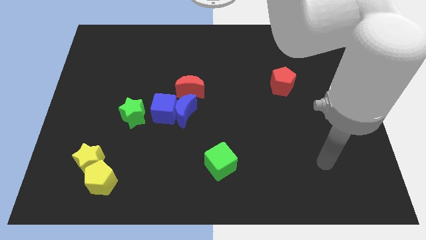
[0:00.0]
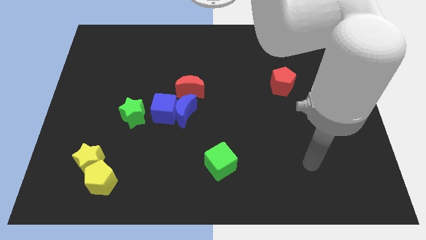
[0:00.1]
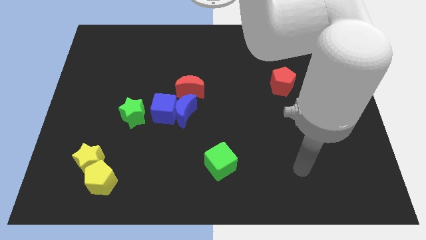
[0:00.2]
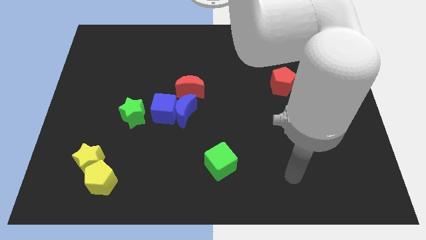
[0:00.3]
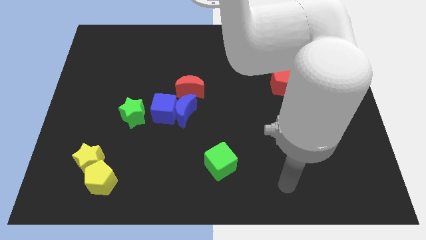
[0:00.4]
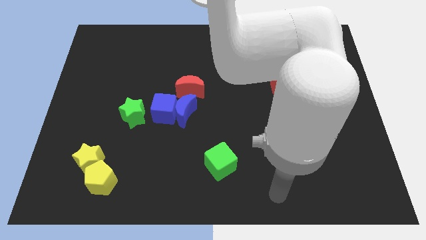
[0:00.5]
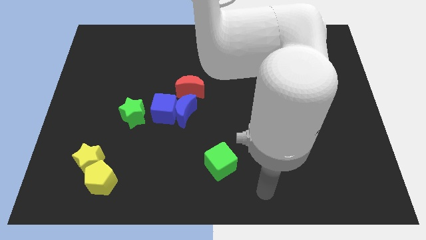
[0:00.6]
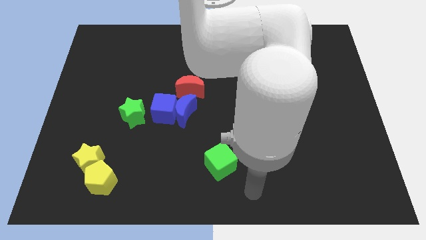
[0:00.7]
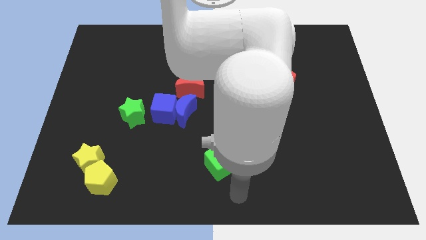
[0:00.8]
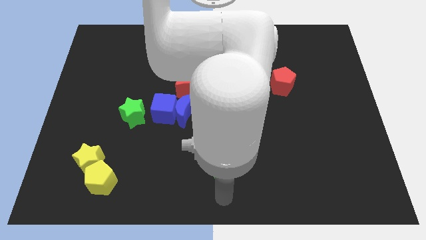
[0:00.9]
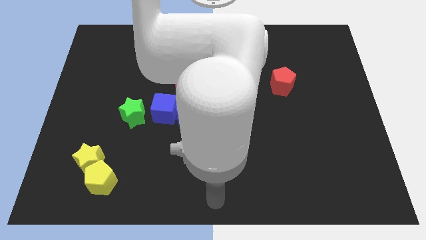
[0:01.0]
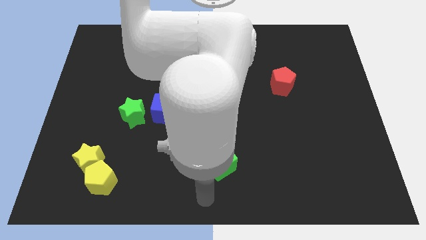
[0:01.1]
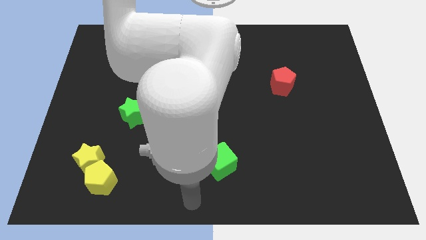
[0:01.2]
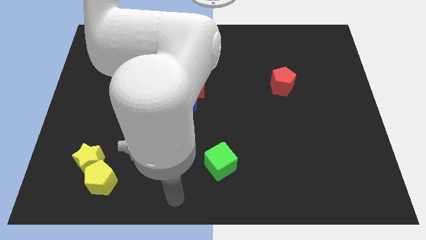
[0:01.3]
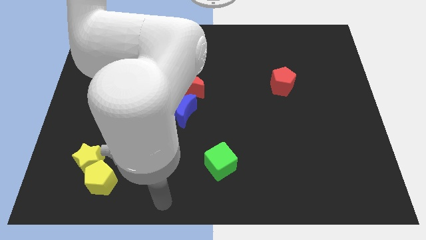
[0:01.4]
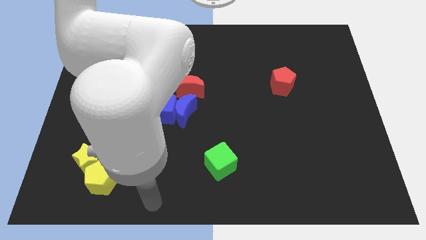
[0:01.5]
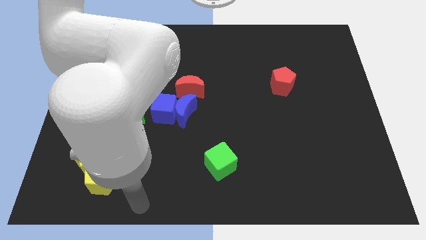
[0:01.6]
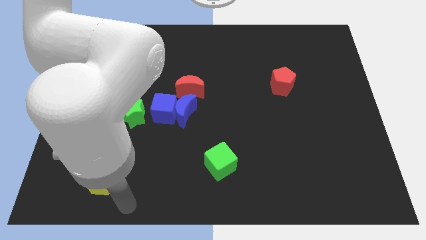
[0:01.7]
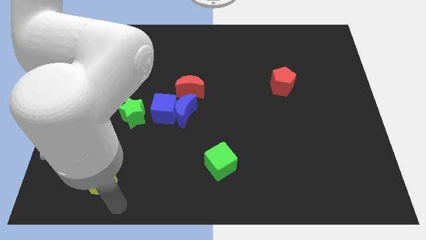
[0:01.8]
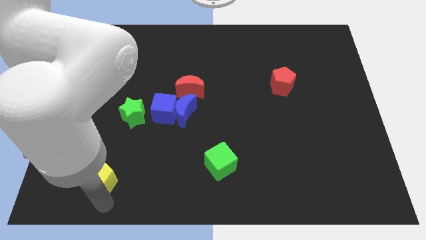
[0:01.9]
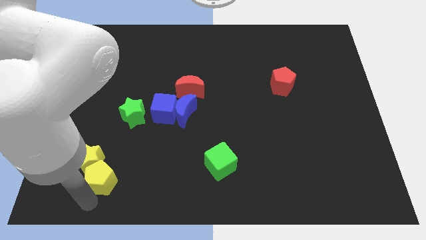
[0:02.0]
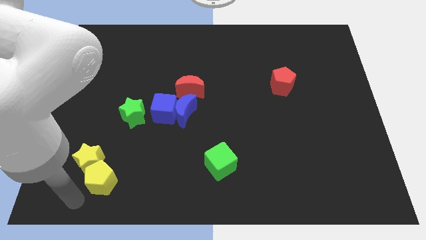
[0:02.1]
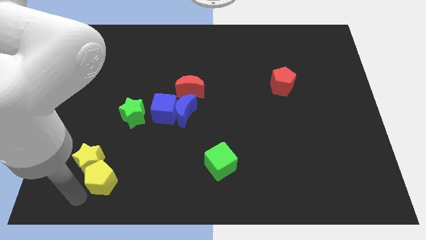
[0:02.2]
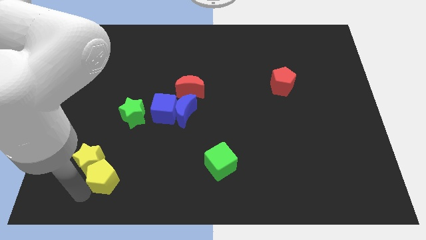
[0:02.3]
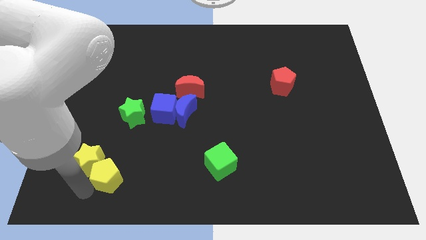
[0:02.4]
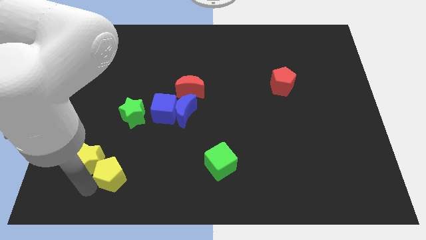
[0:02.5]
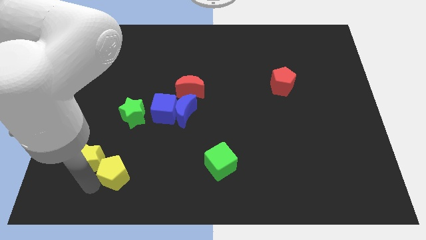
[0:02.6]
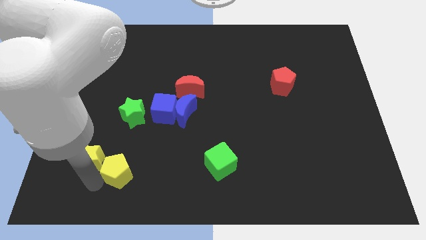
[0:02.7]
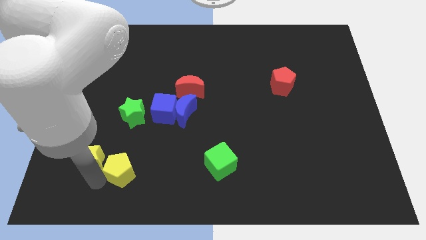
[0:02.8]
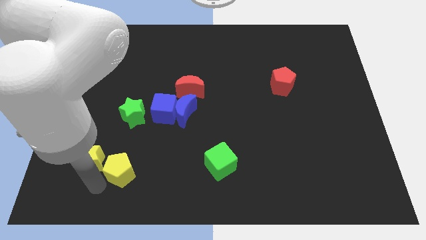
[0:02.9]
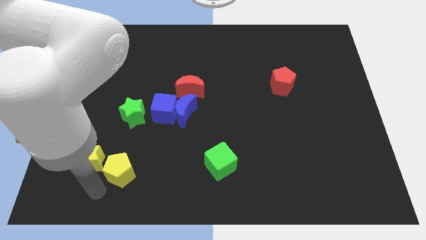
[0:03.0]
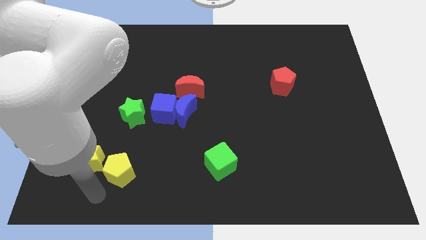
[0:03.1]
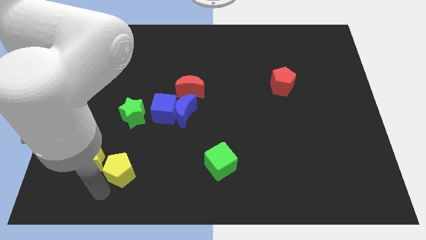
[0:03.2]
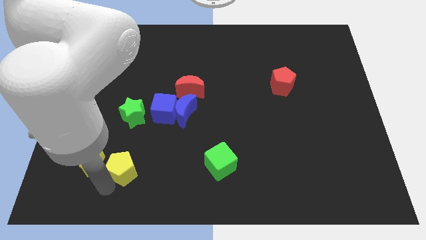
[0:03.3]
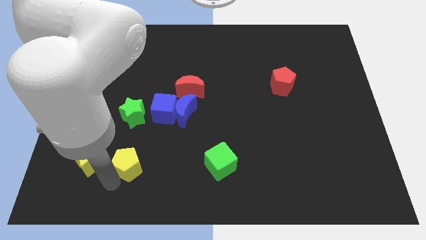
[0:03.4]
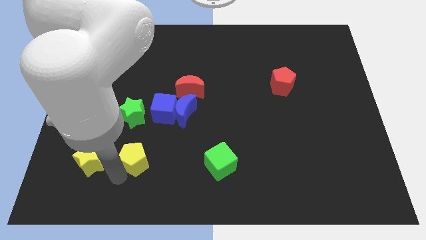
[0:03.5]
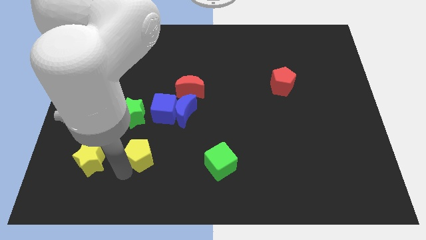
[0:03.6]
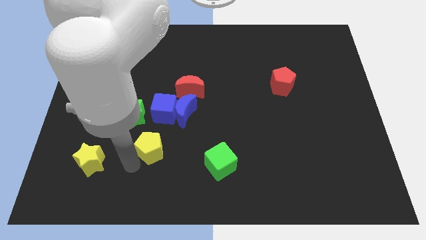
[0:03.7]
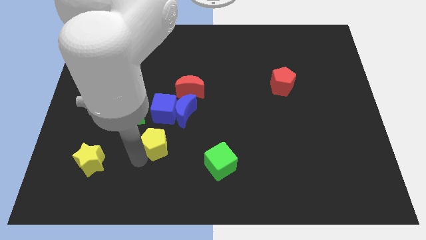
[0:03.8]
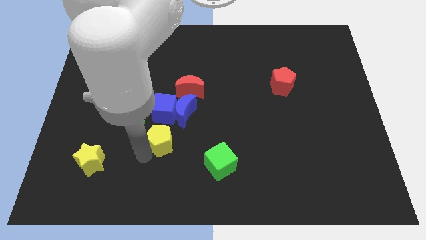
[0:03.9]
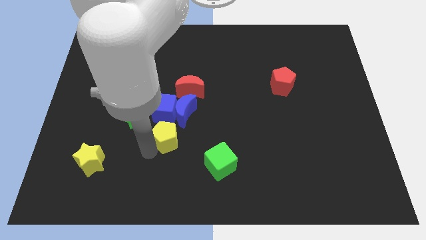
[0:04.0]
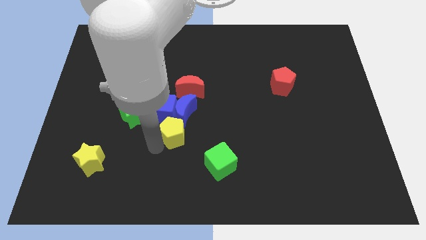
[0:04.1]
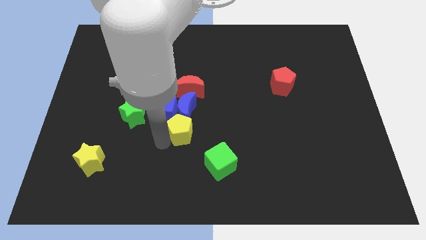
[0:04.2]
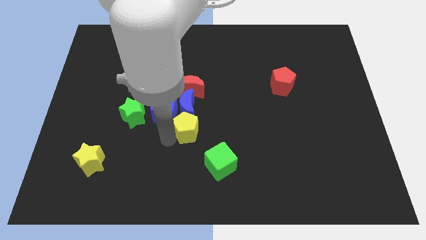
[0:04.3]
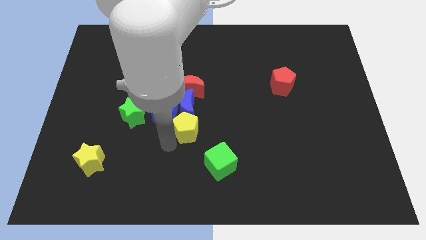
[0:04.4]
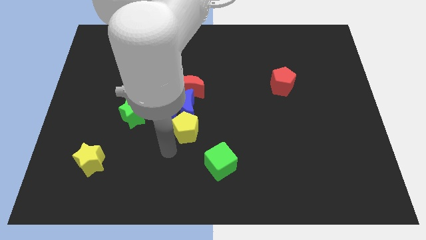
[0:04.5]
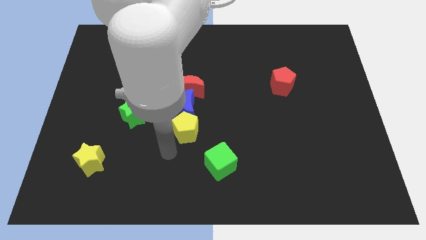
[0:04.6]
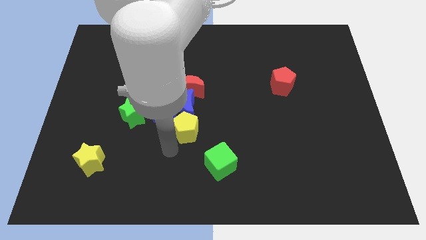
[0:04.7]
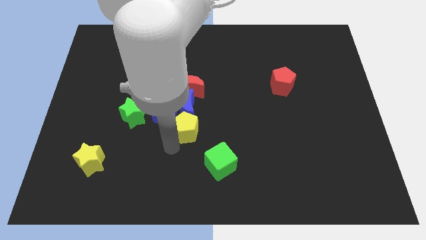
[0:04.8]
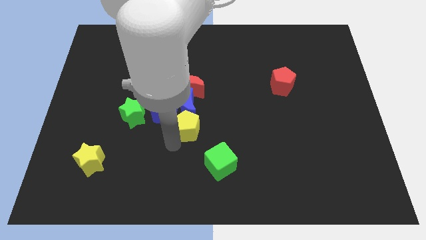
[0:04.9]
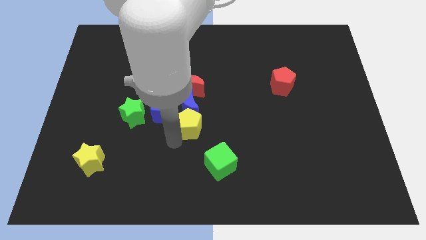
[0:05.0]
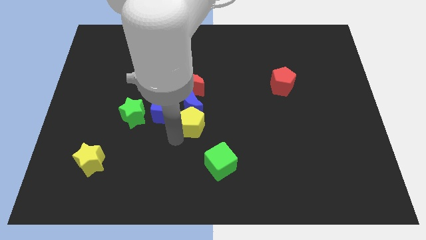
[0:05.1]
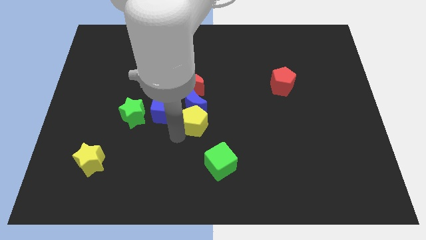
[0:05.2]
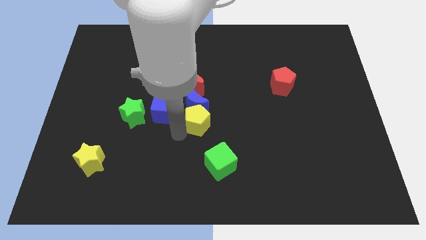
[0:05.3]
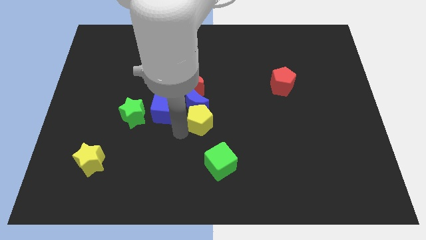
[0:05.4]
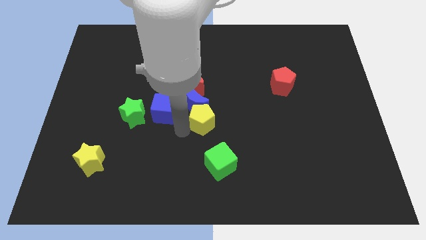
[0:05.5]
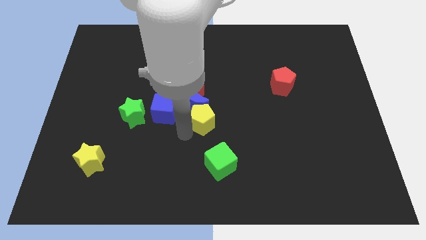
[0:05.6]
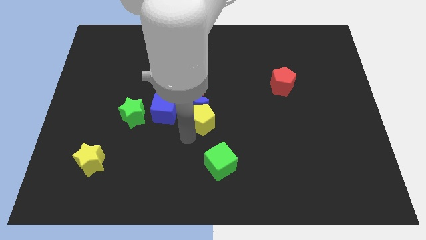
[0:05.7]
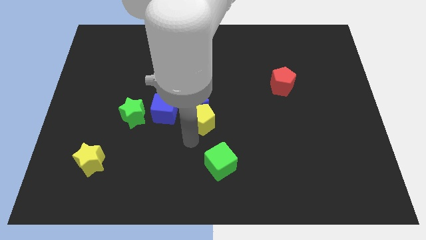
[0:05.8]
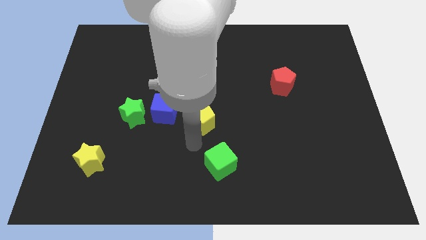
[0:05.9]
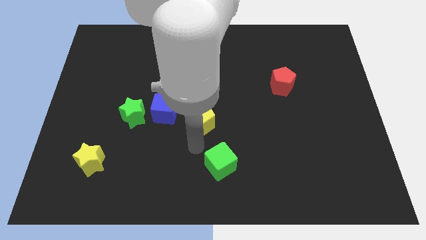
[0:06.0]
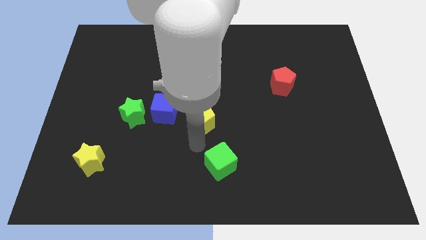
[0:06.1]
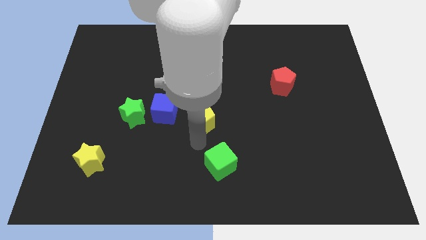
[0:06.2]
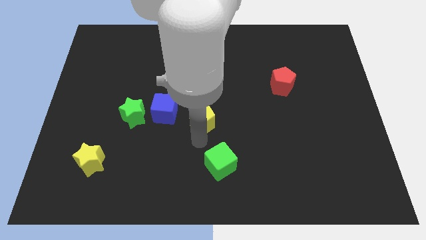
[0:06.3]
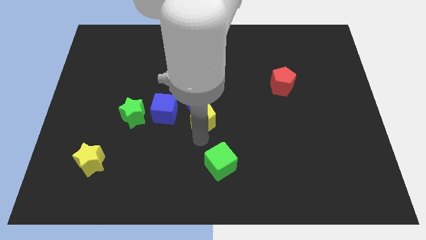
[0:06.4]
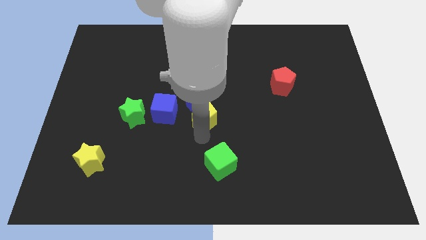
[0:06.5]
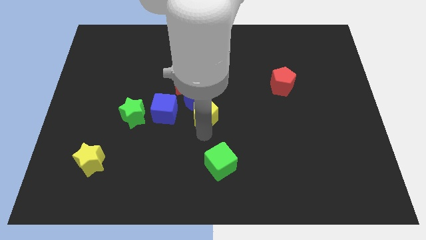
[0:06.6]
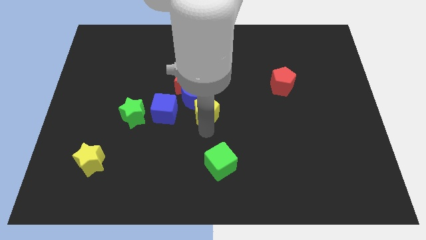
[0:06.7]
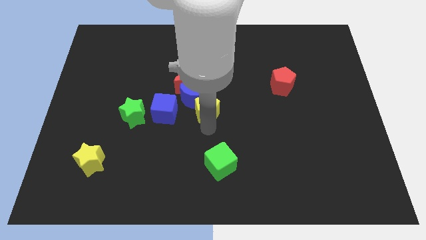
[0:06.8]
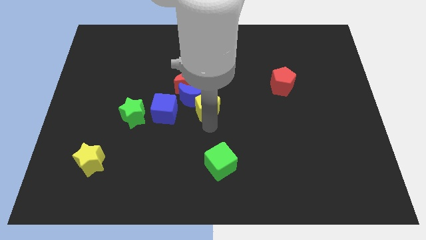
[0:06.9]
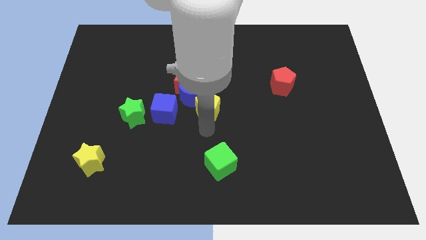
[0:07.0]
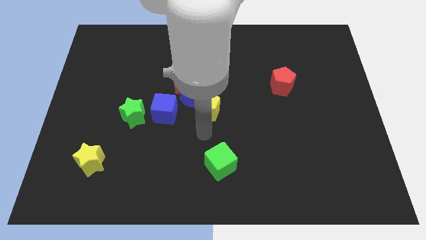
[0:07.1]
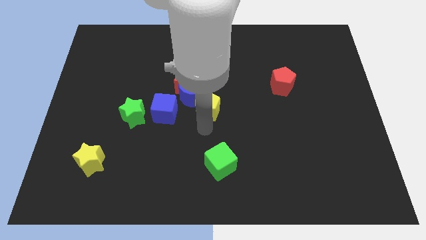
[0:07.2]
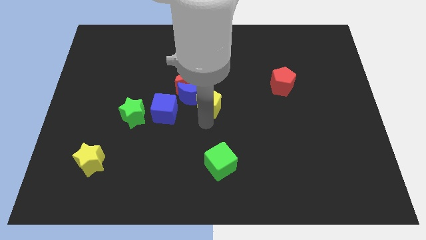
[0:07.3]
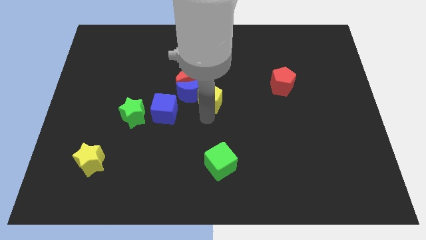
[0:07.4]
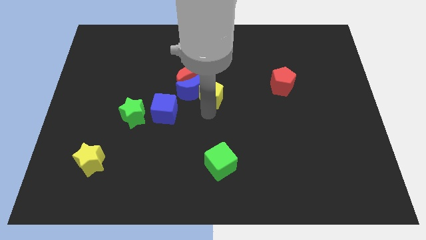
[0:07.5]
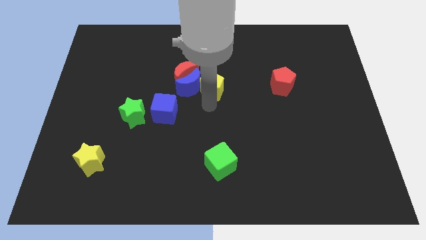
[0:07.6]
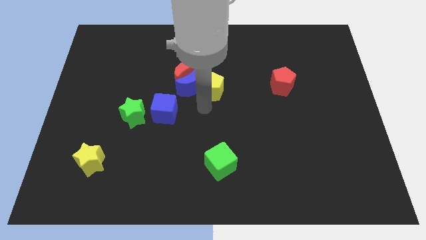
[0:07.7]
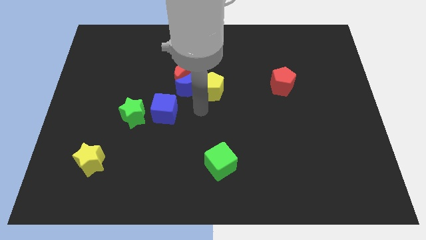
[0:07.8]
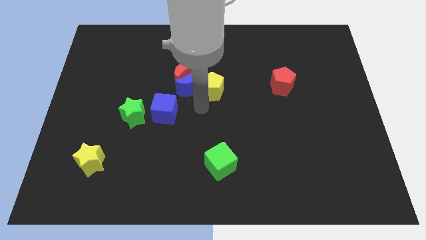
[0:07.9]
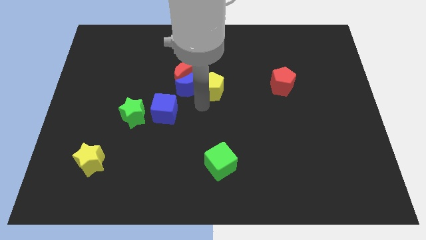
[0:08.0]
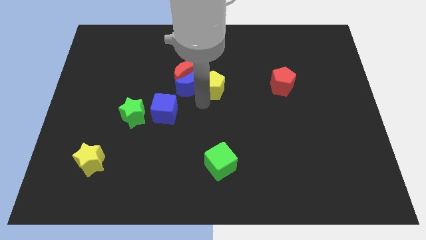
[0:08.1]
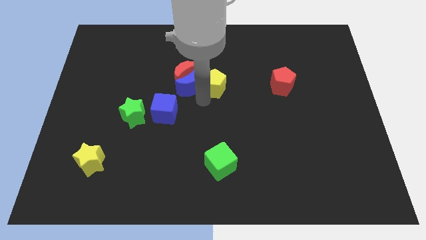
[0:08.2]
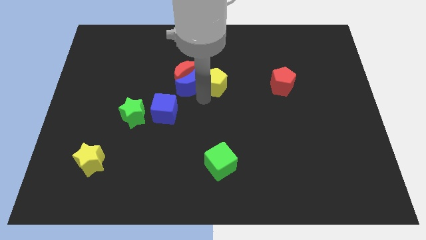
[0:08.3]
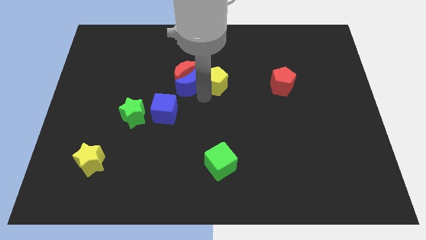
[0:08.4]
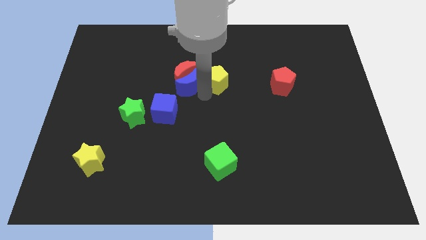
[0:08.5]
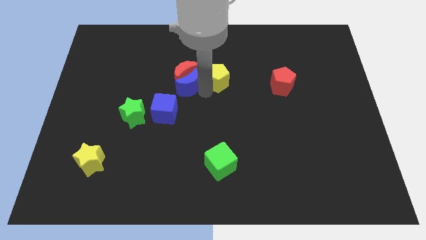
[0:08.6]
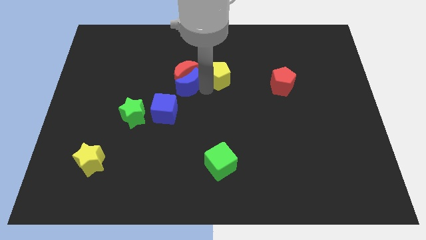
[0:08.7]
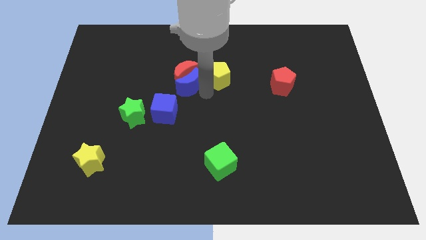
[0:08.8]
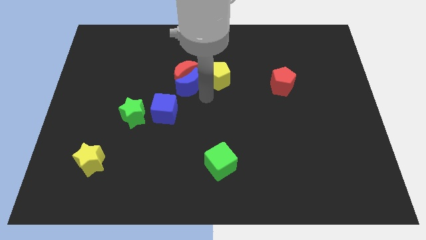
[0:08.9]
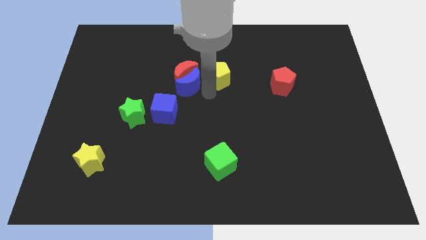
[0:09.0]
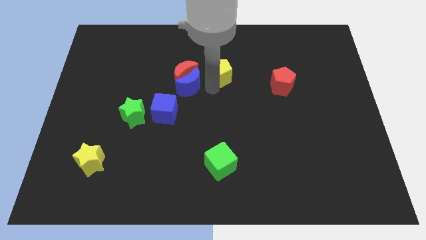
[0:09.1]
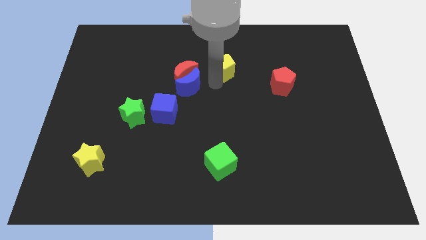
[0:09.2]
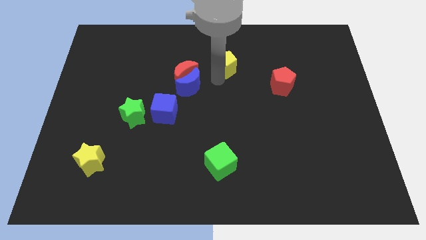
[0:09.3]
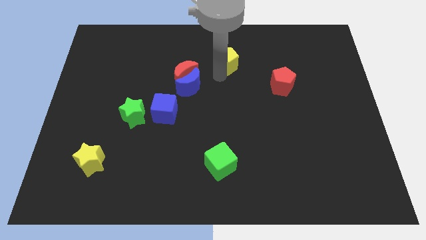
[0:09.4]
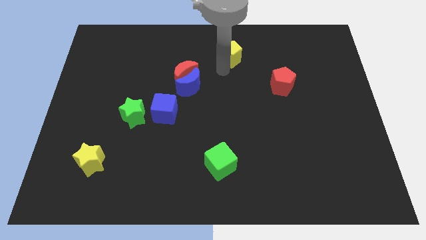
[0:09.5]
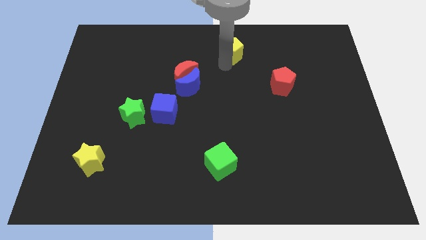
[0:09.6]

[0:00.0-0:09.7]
push the yellow pentagon to the top side
